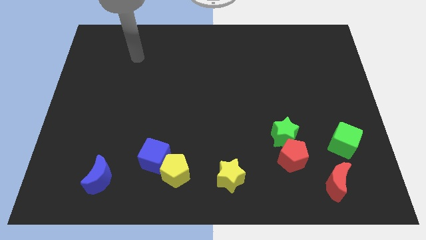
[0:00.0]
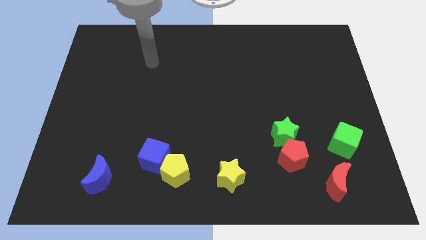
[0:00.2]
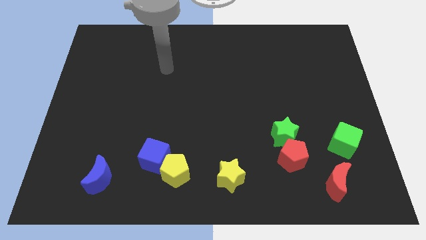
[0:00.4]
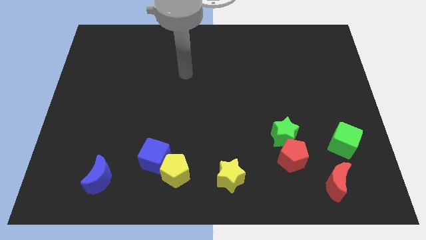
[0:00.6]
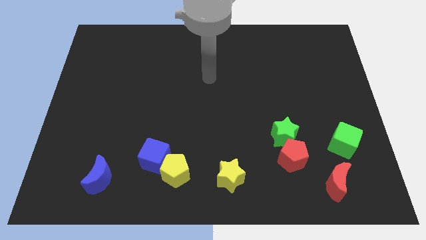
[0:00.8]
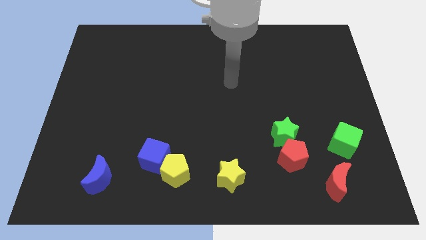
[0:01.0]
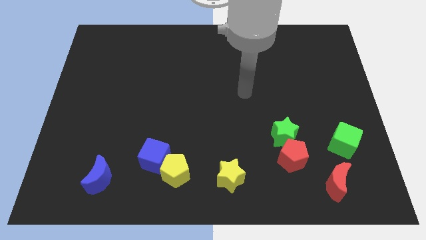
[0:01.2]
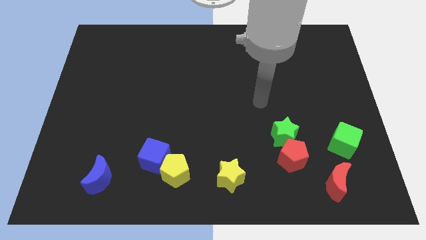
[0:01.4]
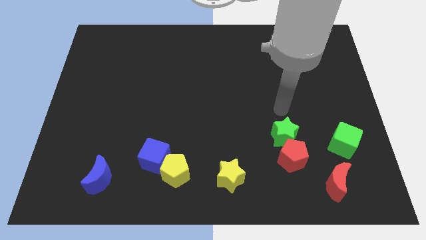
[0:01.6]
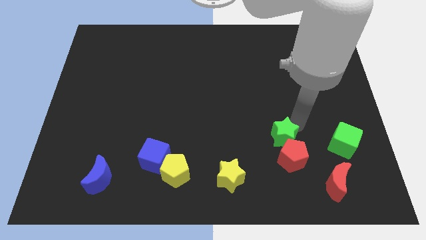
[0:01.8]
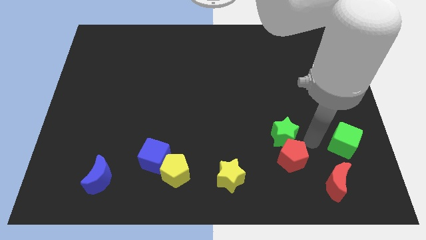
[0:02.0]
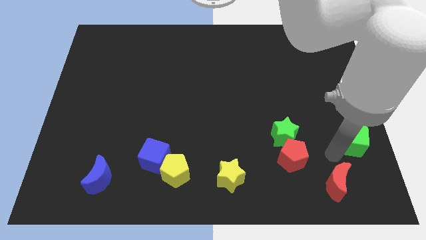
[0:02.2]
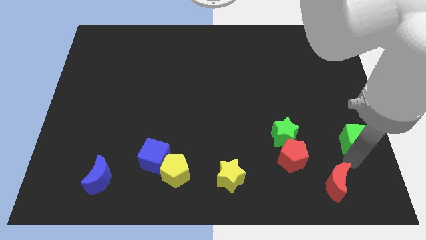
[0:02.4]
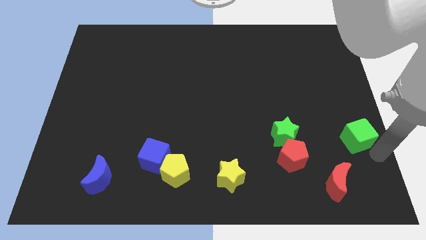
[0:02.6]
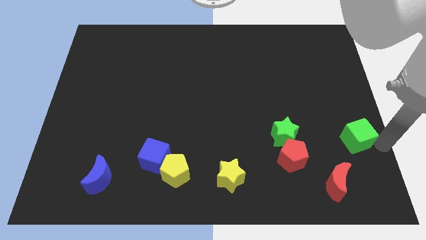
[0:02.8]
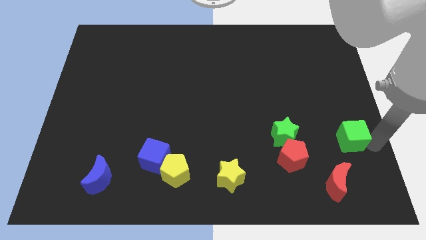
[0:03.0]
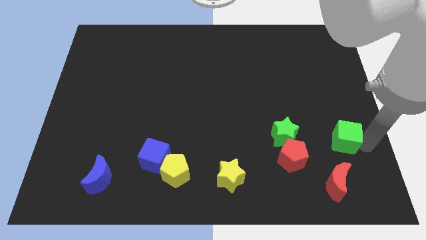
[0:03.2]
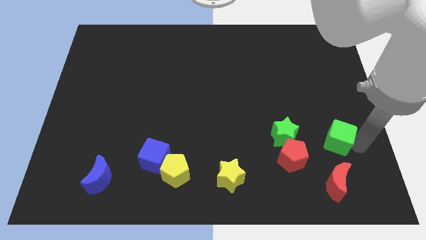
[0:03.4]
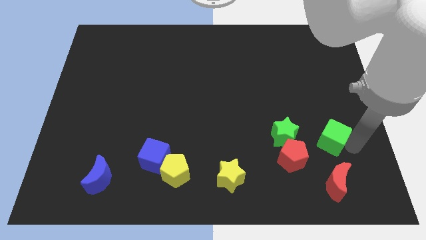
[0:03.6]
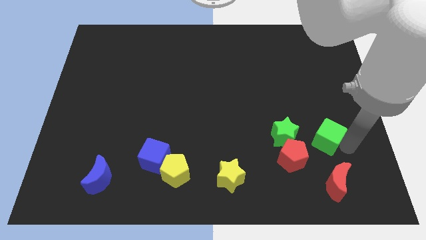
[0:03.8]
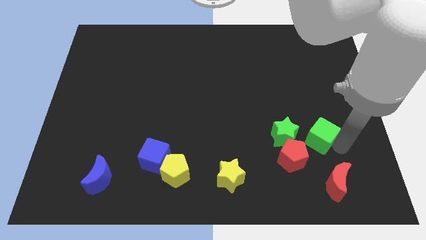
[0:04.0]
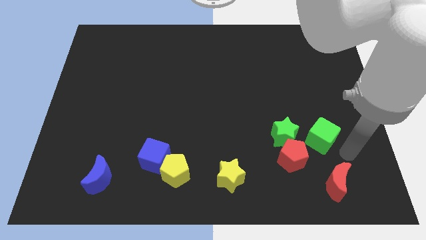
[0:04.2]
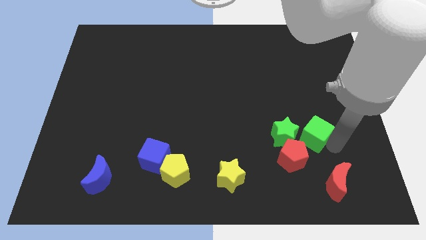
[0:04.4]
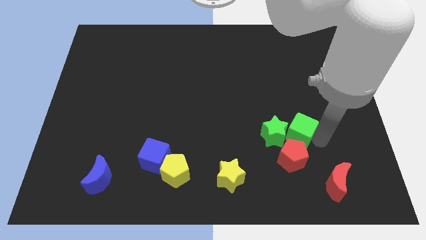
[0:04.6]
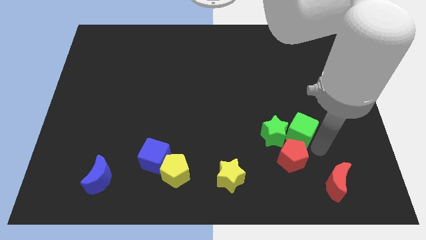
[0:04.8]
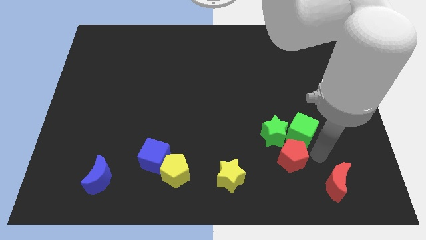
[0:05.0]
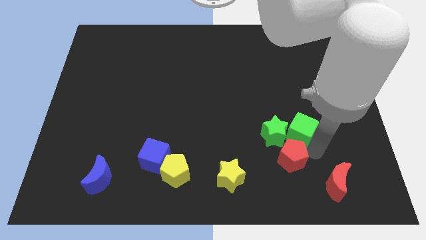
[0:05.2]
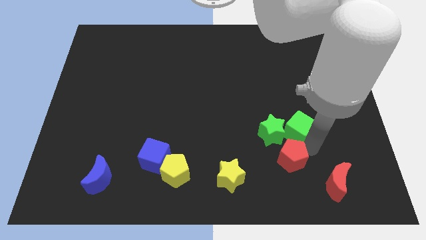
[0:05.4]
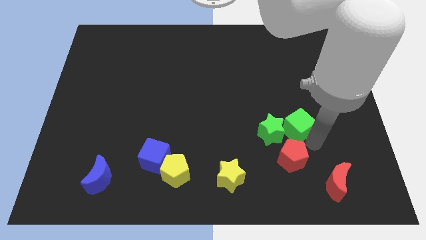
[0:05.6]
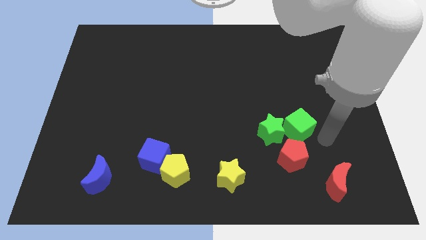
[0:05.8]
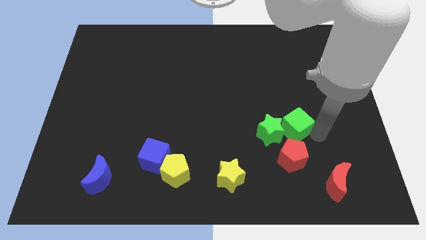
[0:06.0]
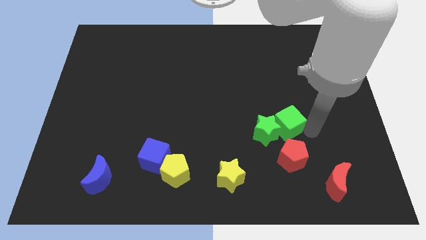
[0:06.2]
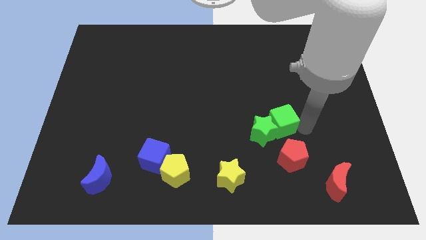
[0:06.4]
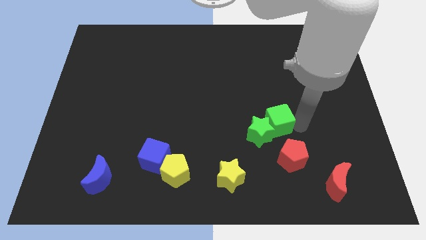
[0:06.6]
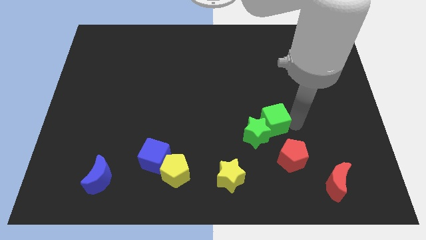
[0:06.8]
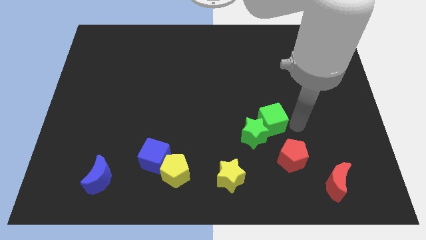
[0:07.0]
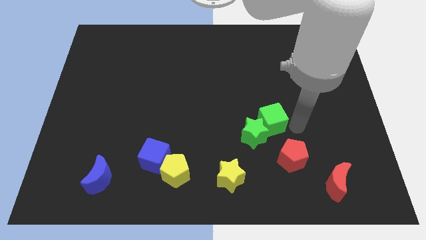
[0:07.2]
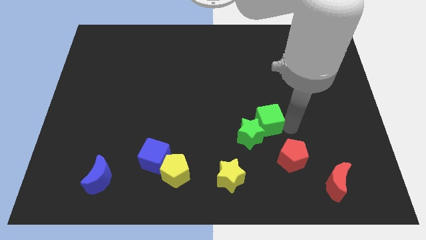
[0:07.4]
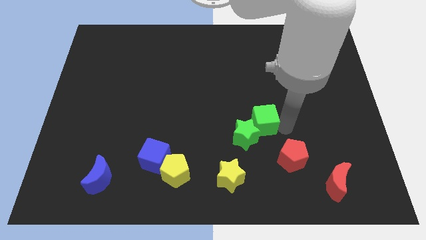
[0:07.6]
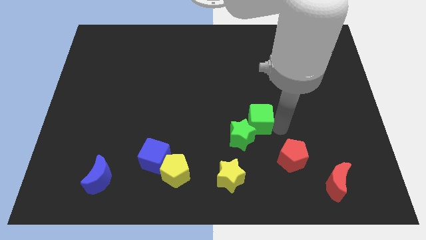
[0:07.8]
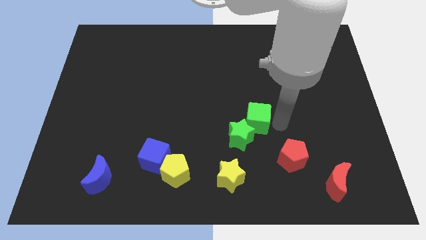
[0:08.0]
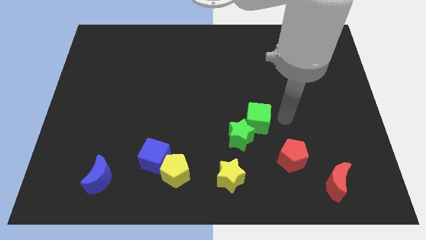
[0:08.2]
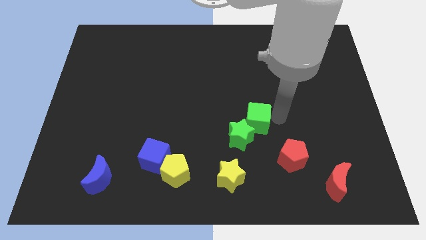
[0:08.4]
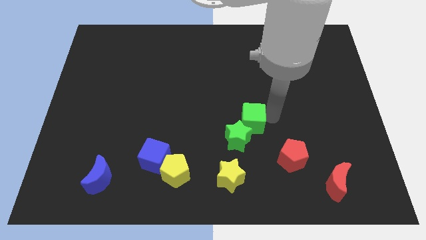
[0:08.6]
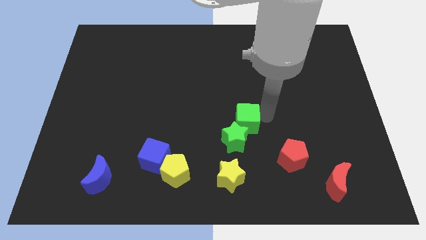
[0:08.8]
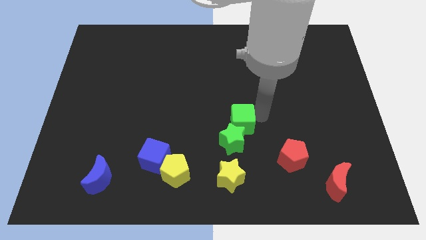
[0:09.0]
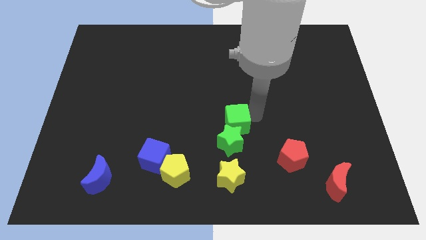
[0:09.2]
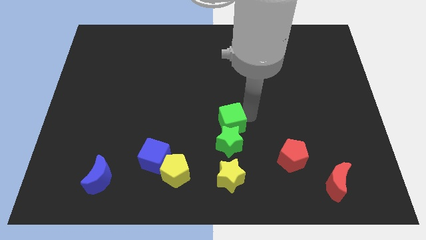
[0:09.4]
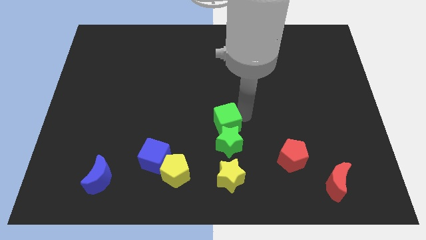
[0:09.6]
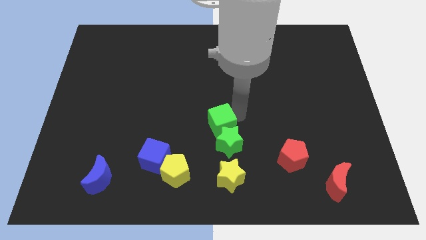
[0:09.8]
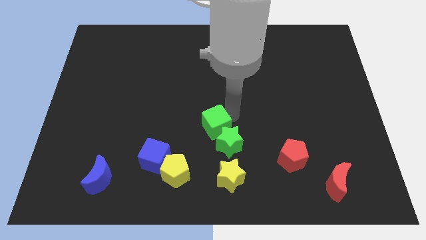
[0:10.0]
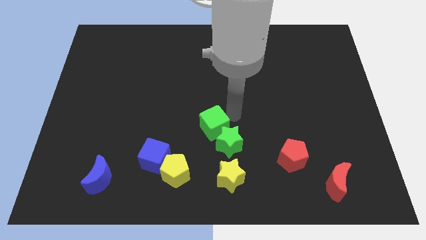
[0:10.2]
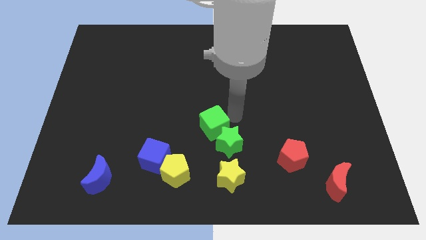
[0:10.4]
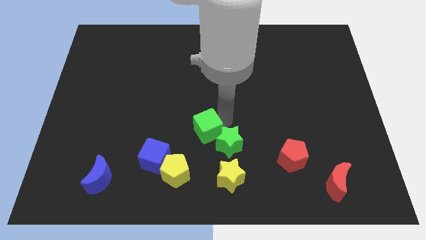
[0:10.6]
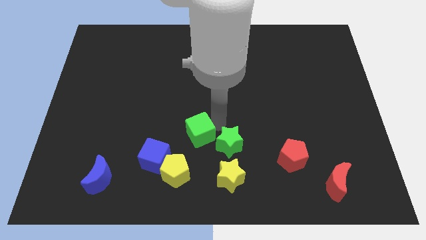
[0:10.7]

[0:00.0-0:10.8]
move the green cube diagonally up and to the right of the blue cube

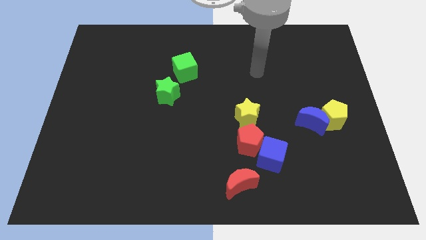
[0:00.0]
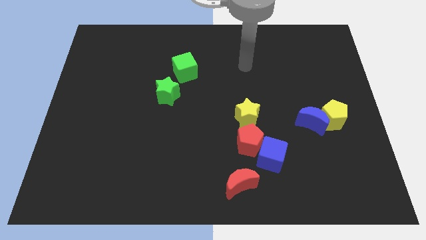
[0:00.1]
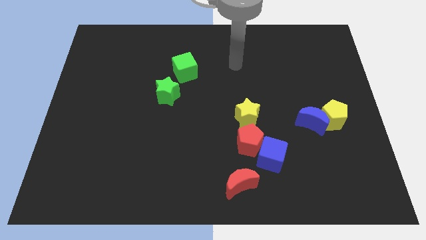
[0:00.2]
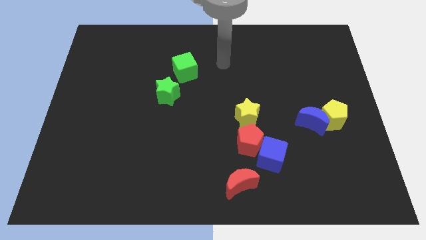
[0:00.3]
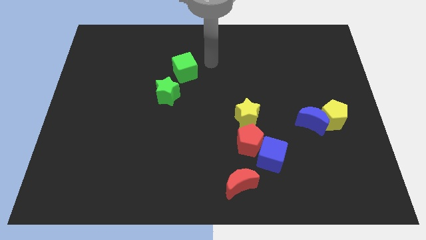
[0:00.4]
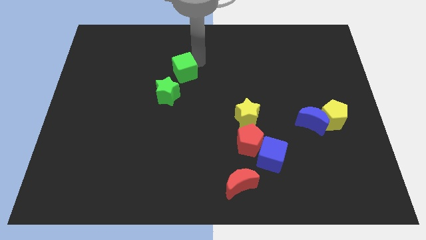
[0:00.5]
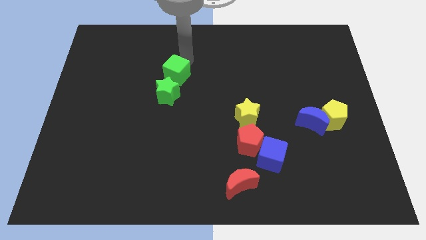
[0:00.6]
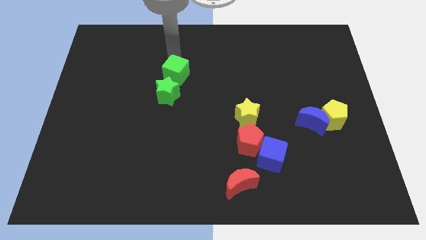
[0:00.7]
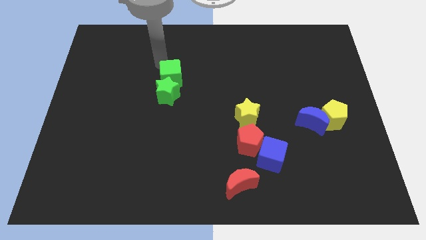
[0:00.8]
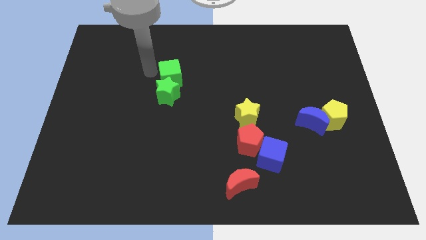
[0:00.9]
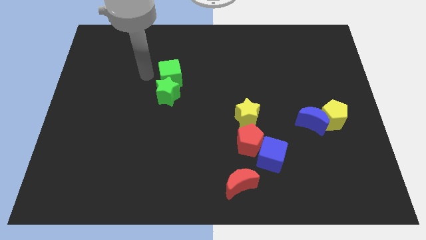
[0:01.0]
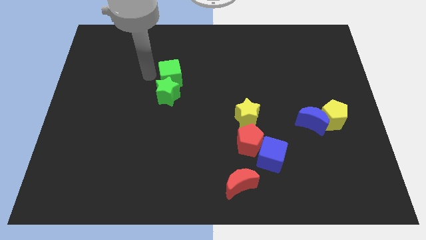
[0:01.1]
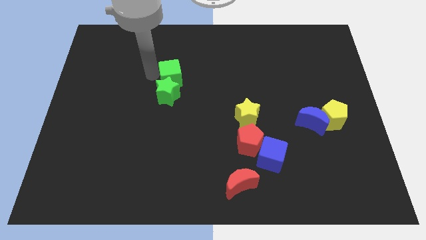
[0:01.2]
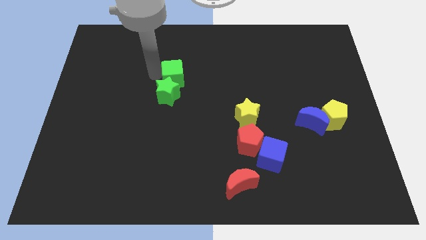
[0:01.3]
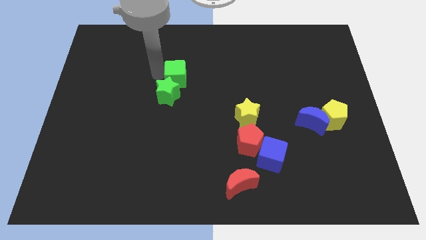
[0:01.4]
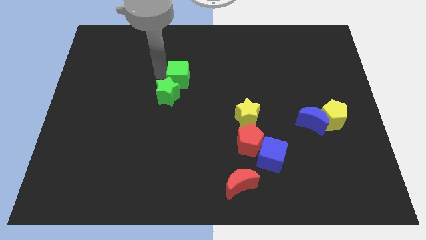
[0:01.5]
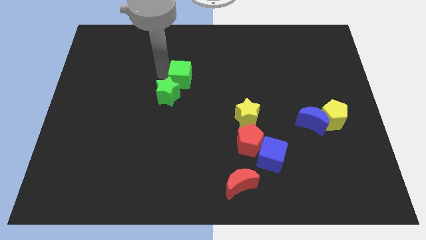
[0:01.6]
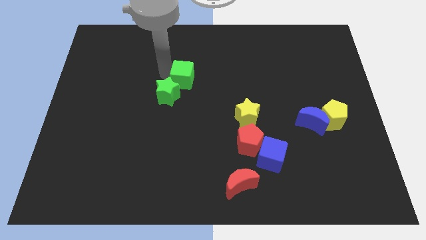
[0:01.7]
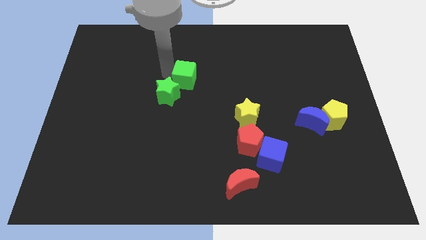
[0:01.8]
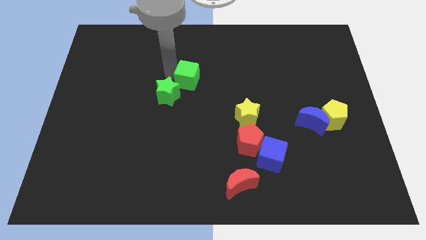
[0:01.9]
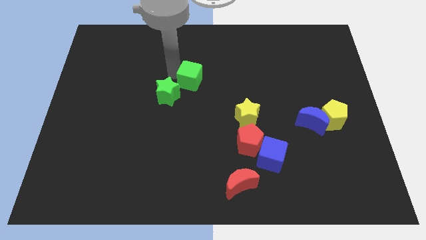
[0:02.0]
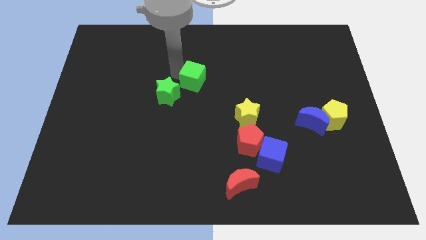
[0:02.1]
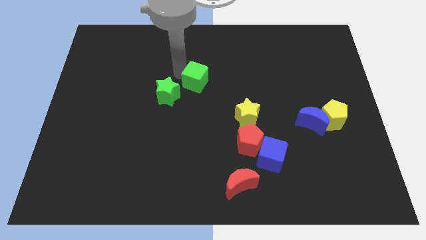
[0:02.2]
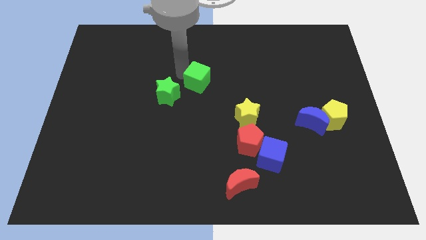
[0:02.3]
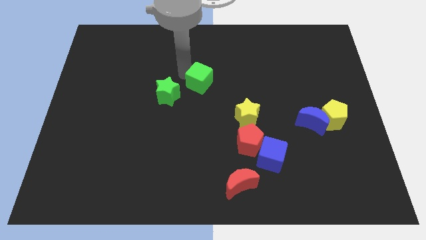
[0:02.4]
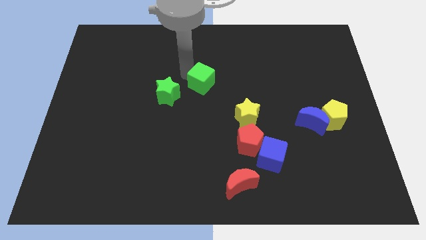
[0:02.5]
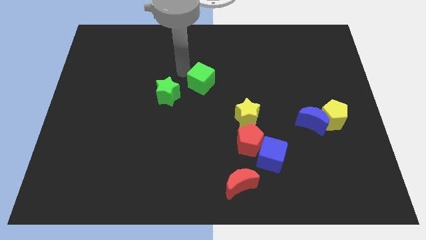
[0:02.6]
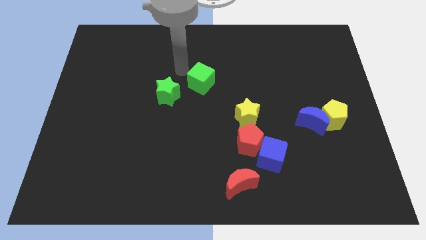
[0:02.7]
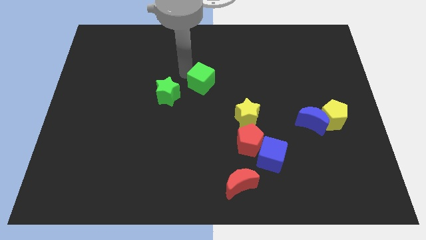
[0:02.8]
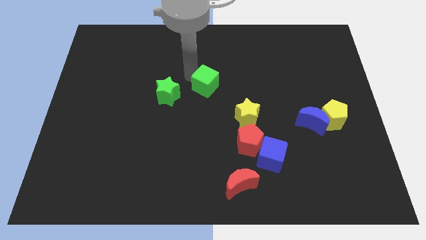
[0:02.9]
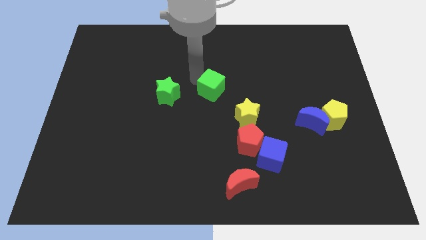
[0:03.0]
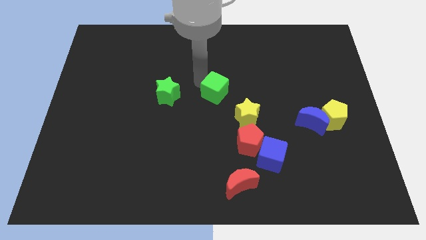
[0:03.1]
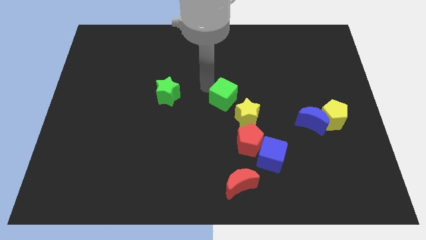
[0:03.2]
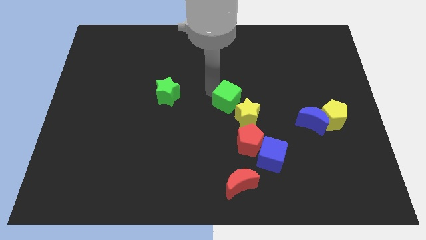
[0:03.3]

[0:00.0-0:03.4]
slide the green cube to the top of the red pentagon
